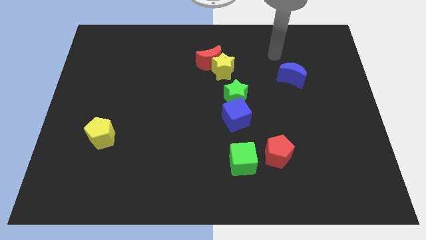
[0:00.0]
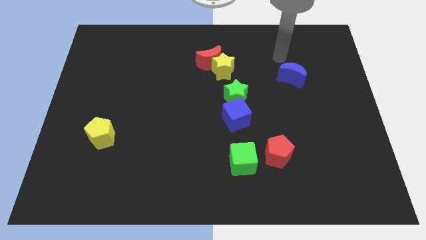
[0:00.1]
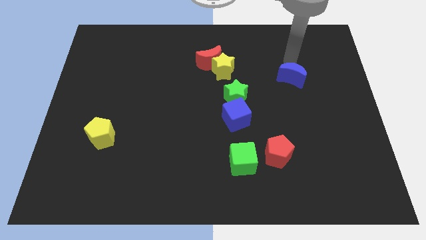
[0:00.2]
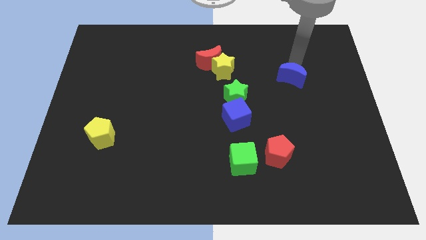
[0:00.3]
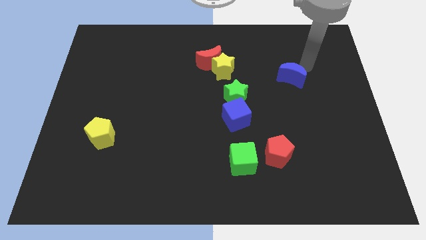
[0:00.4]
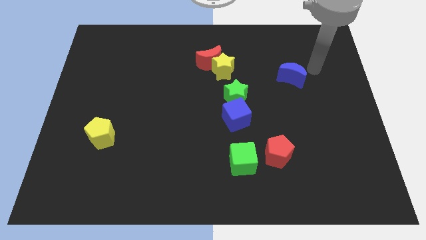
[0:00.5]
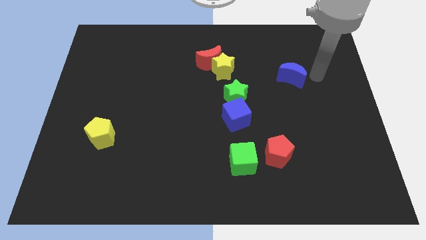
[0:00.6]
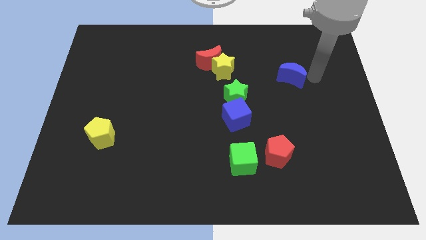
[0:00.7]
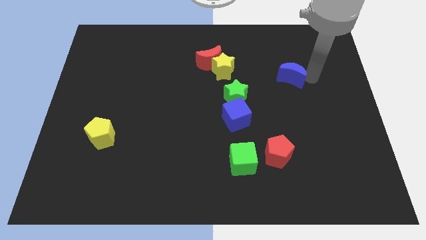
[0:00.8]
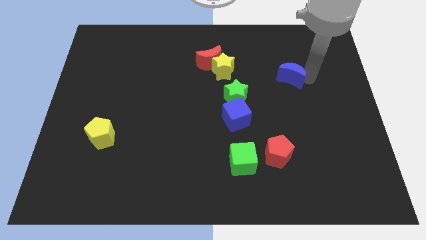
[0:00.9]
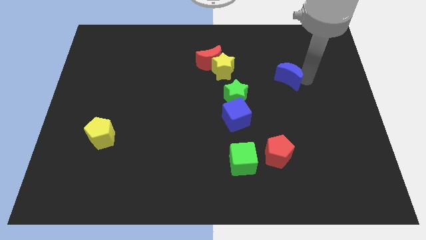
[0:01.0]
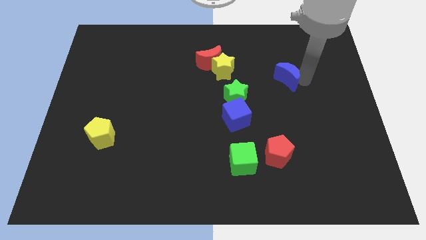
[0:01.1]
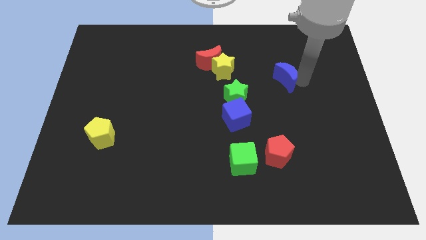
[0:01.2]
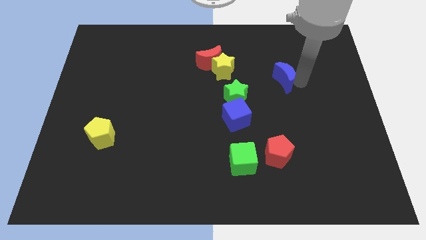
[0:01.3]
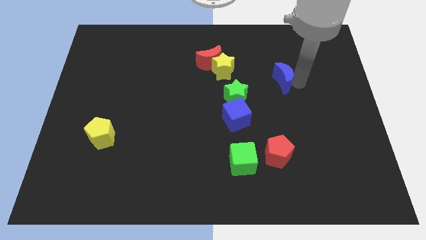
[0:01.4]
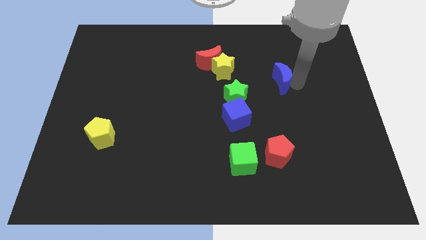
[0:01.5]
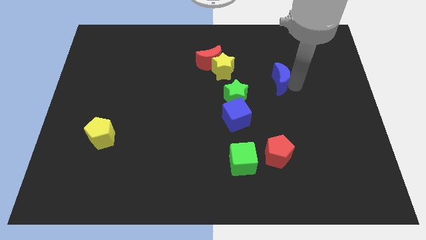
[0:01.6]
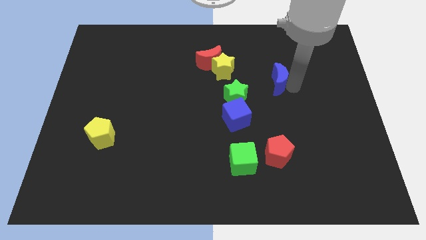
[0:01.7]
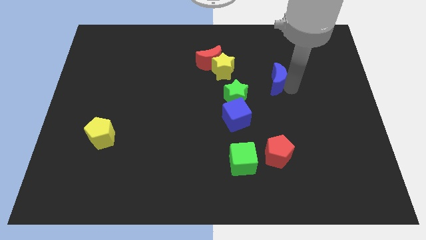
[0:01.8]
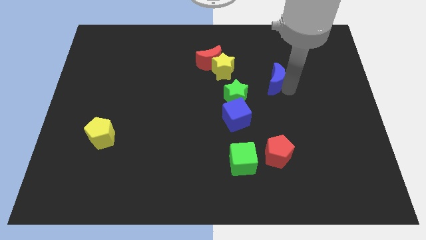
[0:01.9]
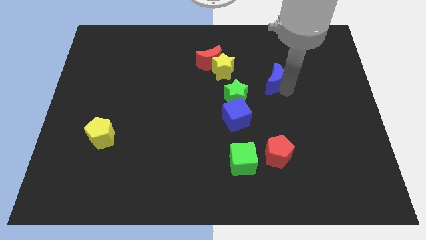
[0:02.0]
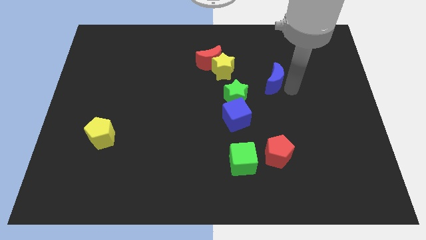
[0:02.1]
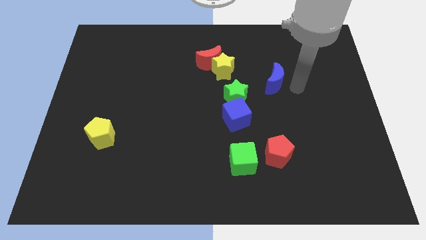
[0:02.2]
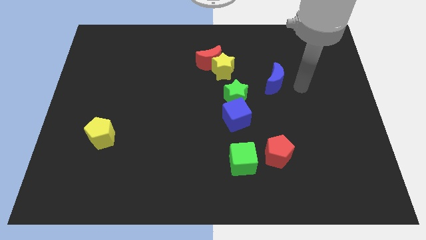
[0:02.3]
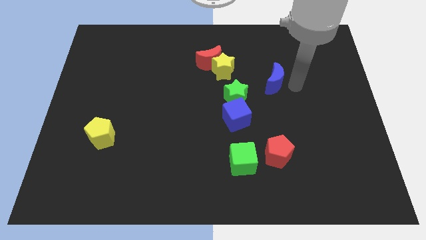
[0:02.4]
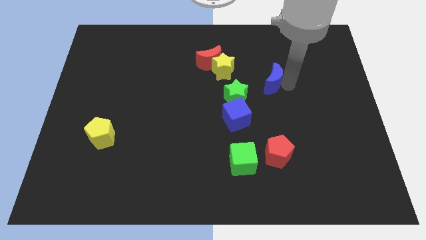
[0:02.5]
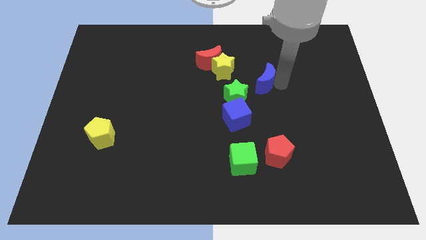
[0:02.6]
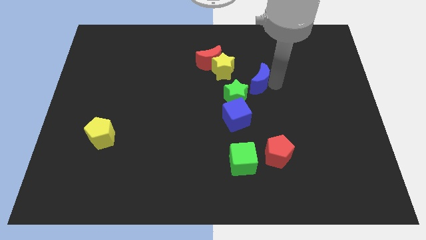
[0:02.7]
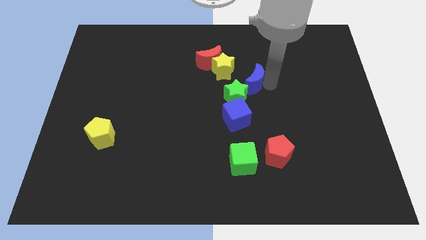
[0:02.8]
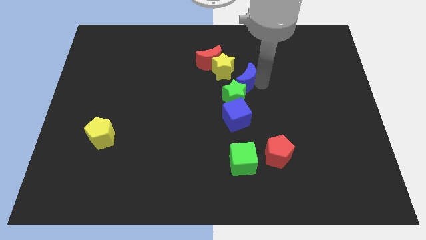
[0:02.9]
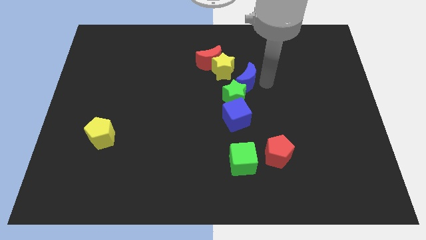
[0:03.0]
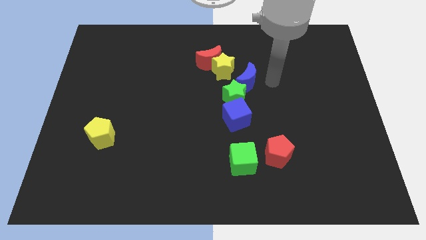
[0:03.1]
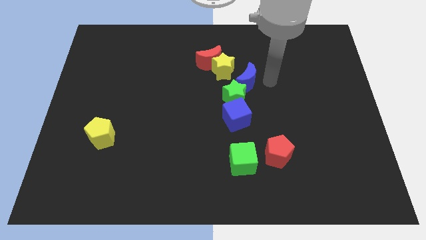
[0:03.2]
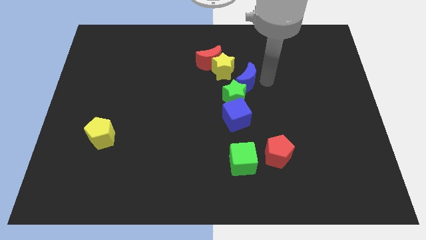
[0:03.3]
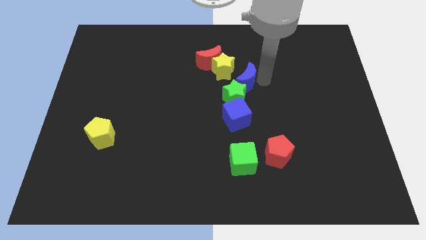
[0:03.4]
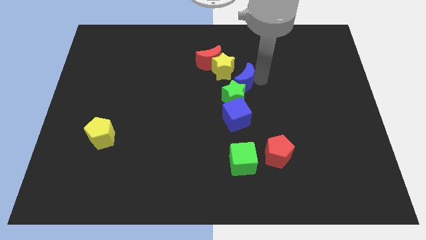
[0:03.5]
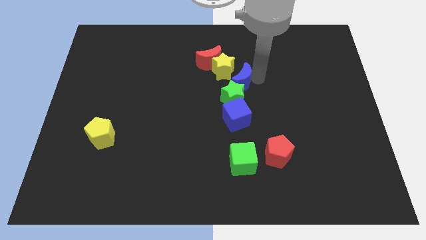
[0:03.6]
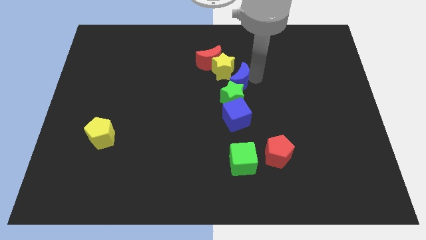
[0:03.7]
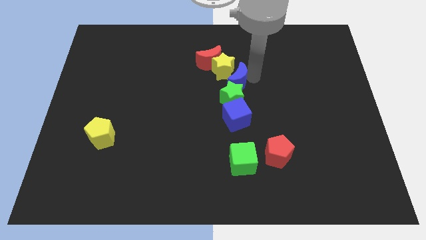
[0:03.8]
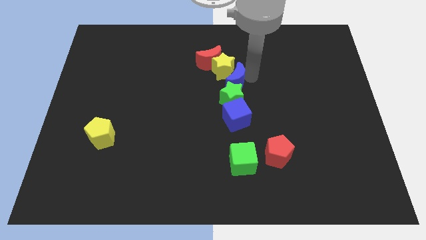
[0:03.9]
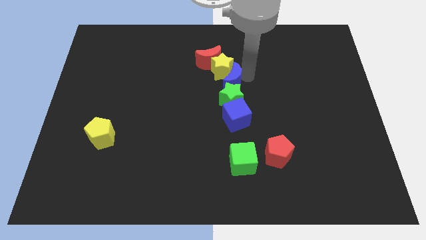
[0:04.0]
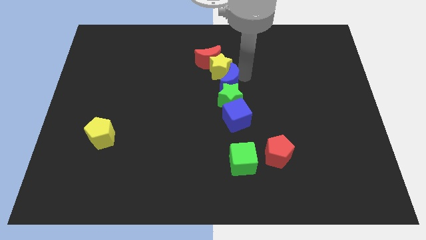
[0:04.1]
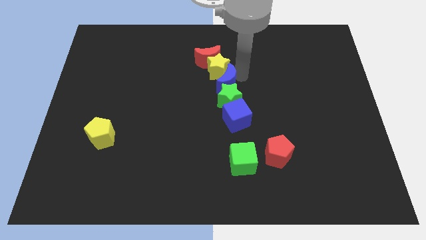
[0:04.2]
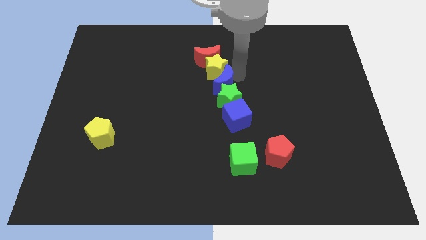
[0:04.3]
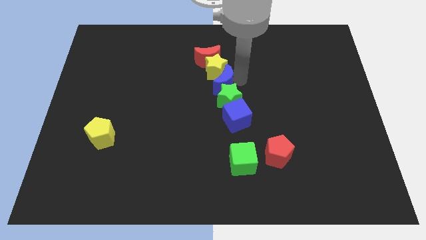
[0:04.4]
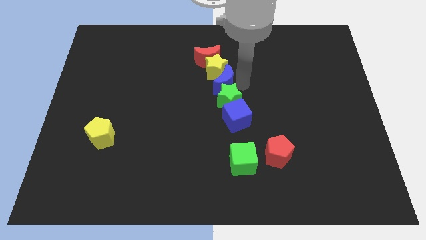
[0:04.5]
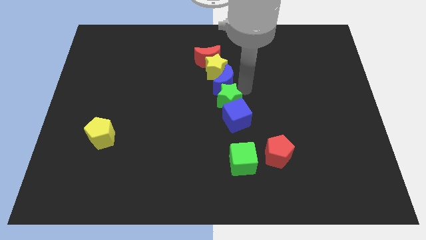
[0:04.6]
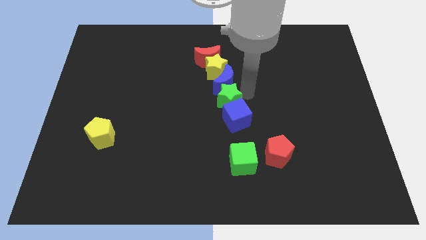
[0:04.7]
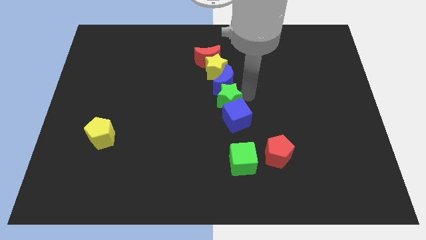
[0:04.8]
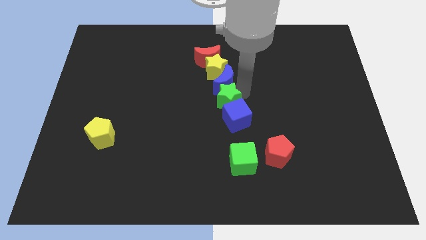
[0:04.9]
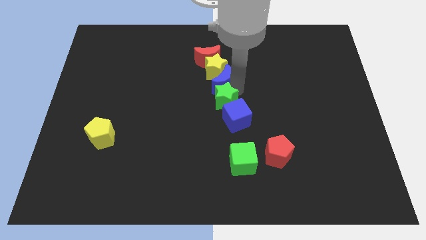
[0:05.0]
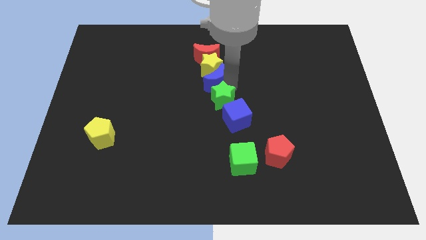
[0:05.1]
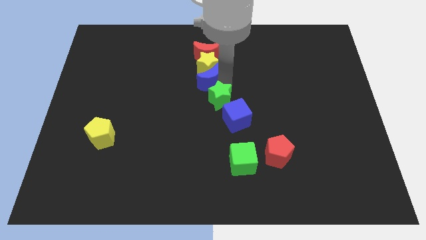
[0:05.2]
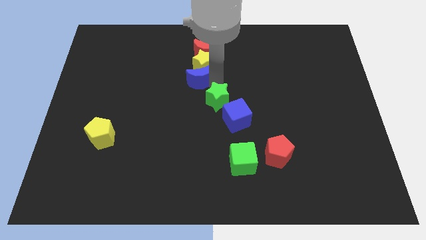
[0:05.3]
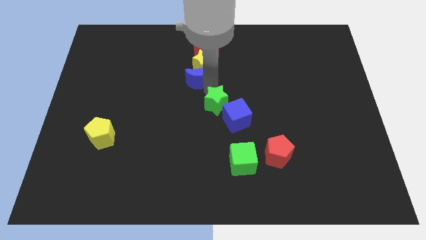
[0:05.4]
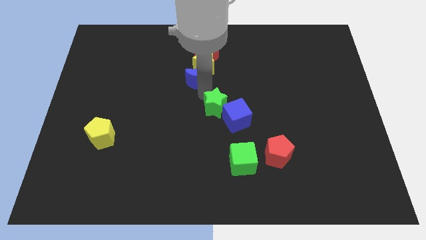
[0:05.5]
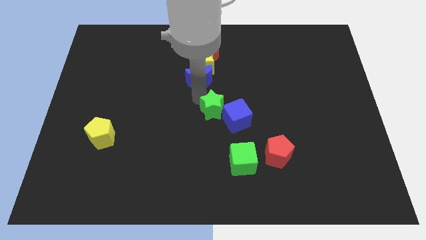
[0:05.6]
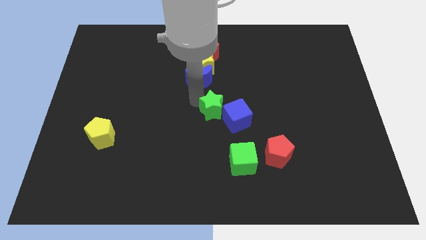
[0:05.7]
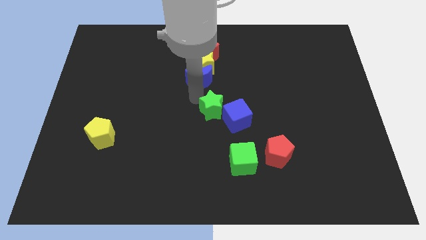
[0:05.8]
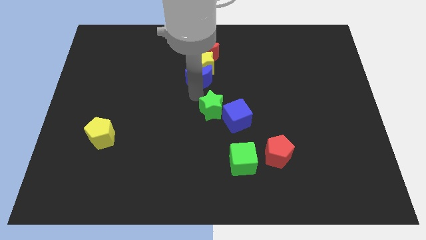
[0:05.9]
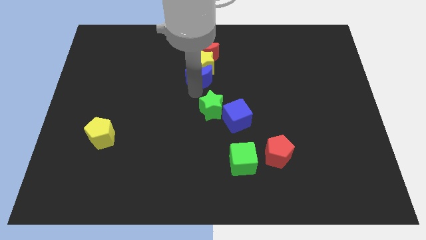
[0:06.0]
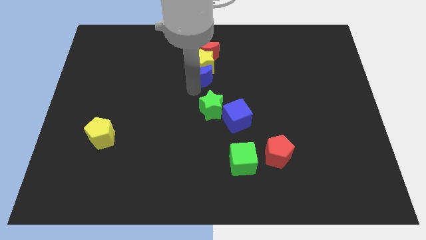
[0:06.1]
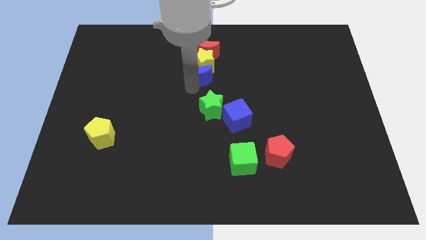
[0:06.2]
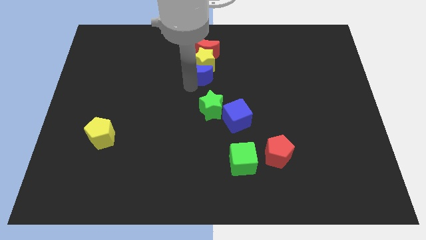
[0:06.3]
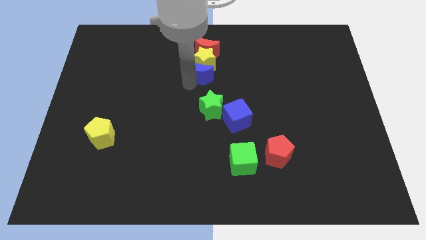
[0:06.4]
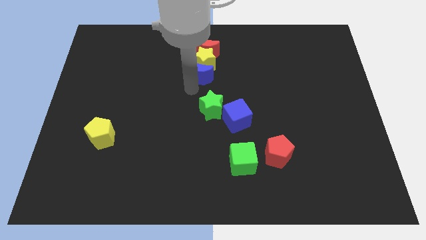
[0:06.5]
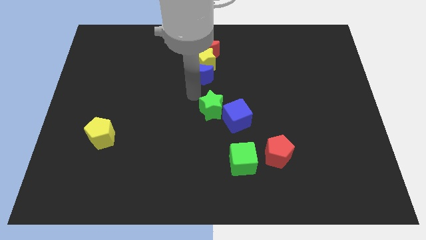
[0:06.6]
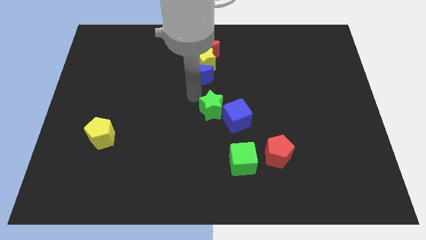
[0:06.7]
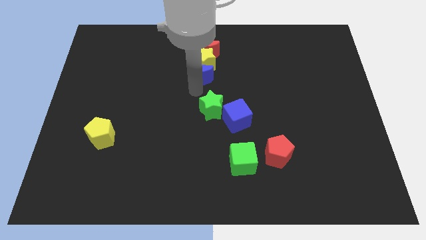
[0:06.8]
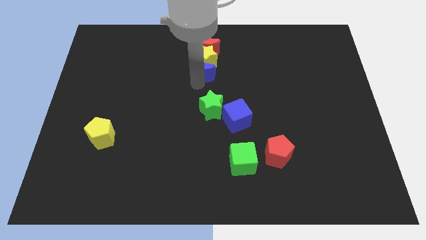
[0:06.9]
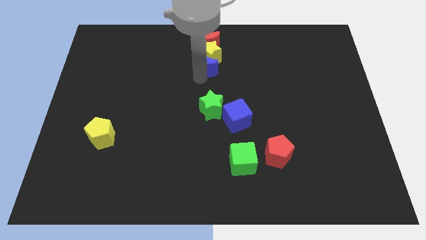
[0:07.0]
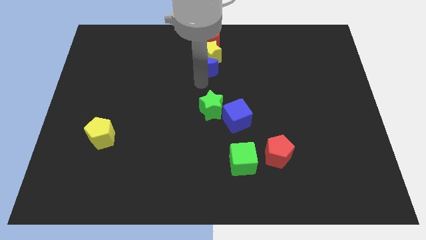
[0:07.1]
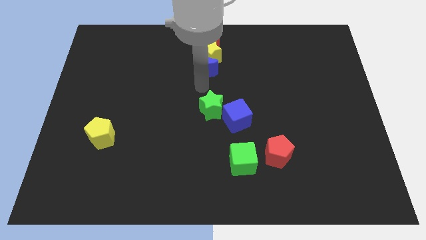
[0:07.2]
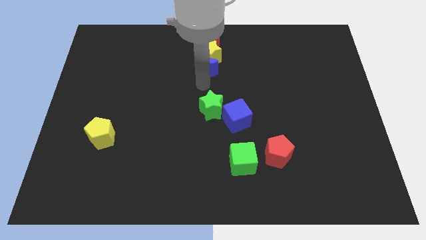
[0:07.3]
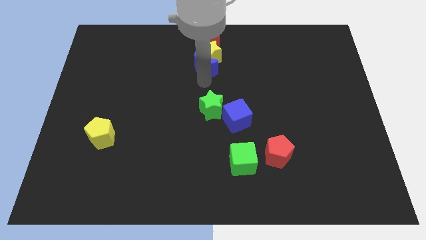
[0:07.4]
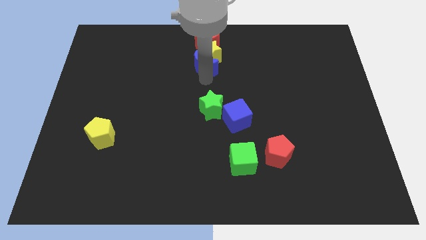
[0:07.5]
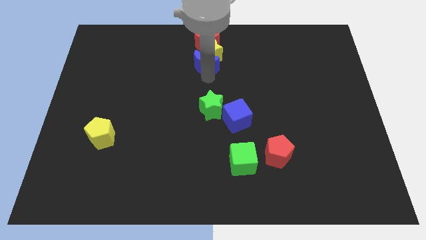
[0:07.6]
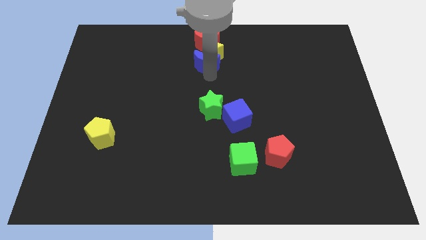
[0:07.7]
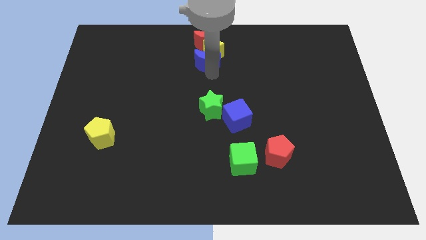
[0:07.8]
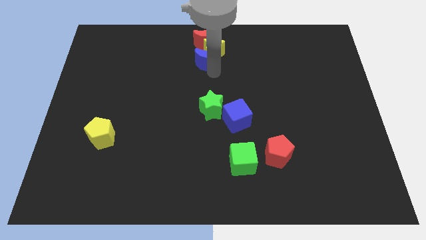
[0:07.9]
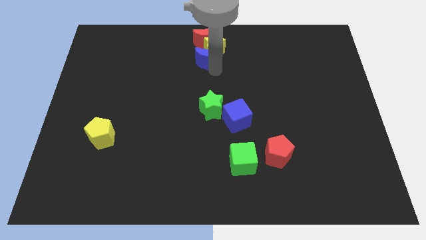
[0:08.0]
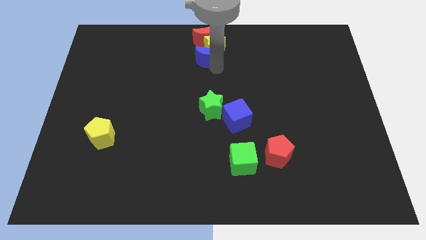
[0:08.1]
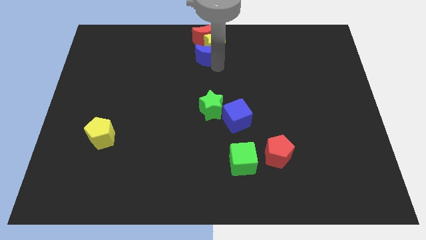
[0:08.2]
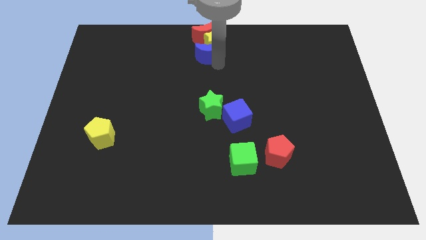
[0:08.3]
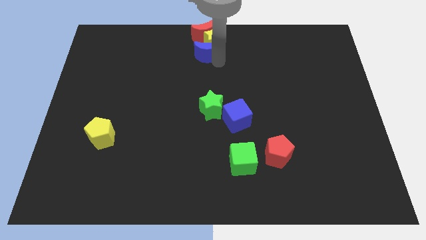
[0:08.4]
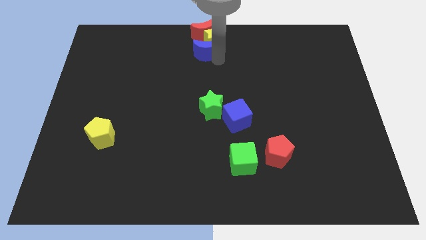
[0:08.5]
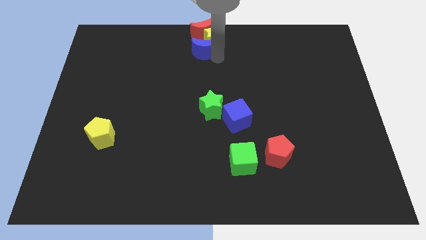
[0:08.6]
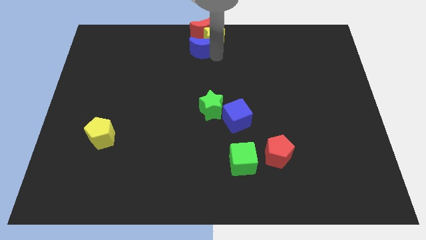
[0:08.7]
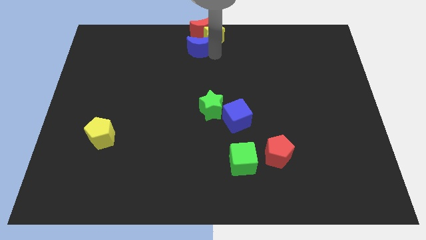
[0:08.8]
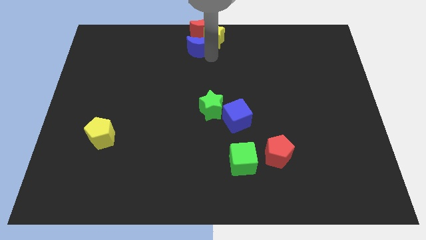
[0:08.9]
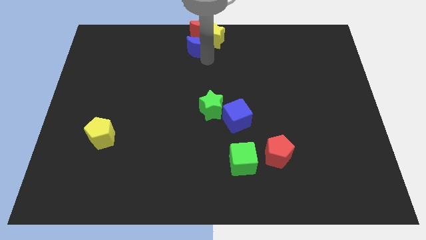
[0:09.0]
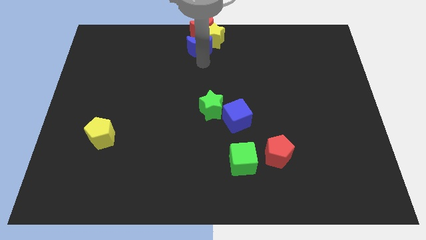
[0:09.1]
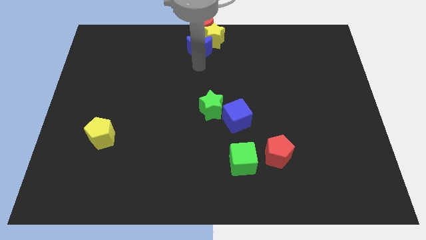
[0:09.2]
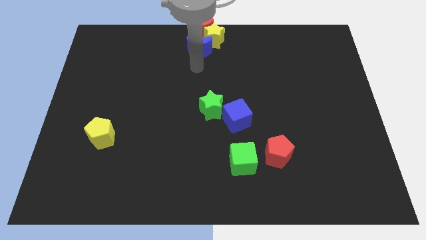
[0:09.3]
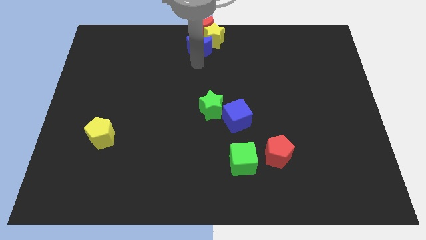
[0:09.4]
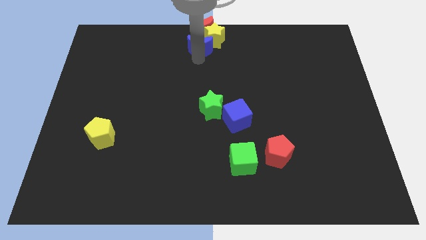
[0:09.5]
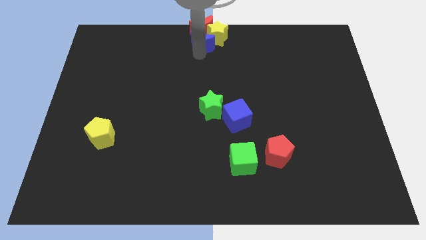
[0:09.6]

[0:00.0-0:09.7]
push the blue moon to the red moon
